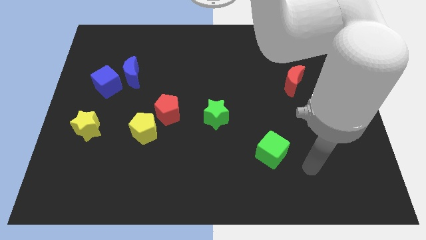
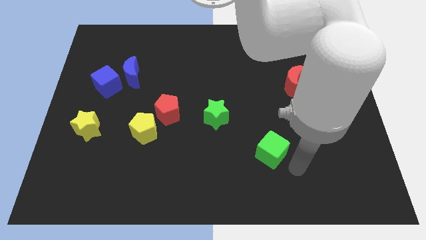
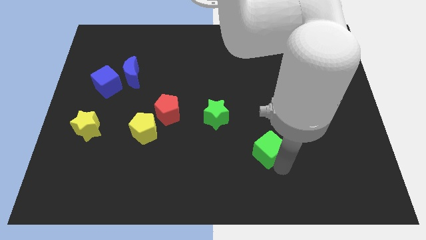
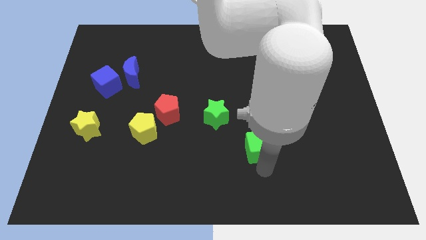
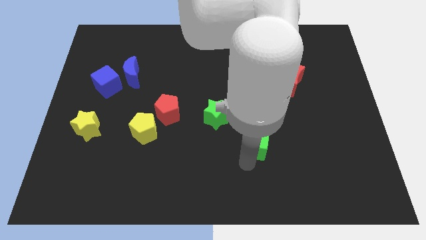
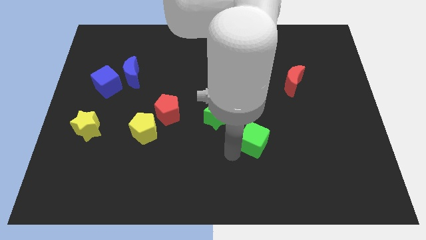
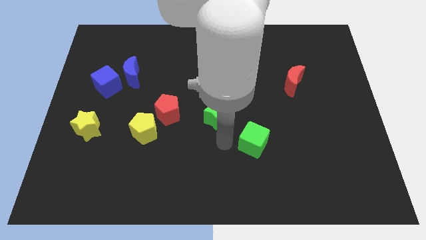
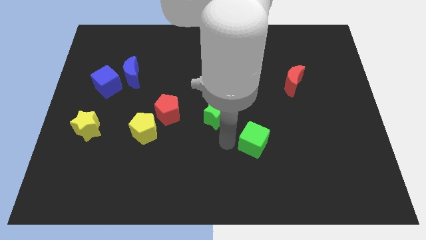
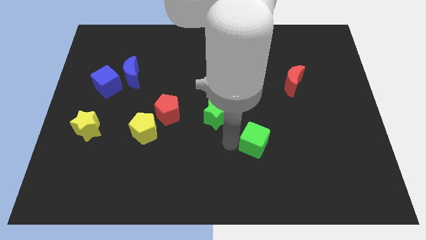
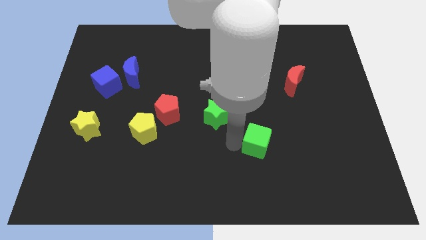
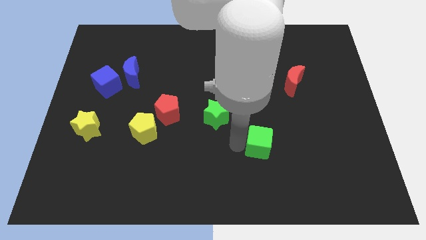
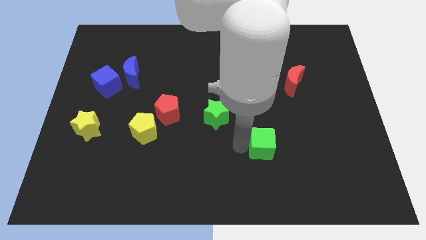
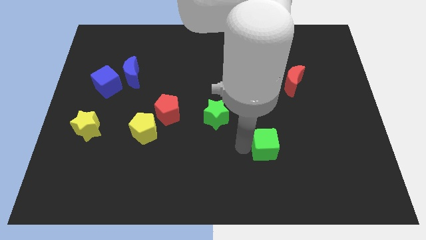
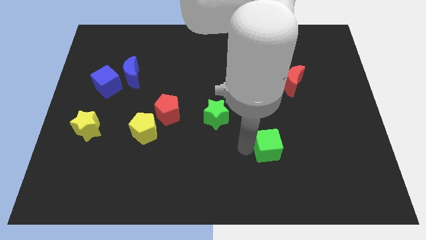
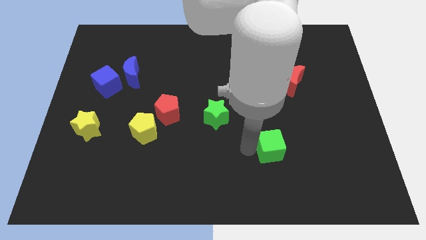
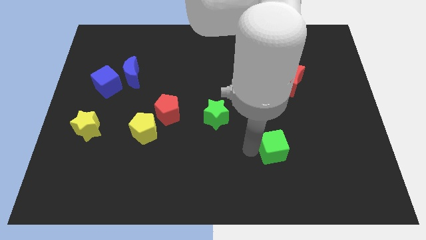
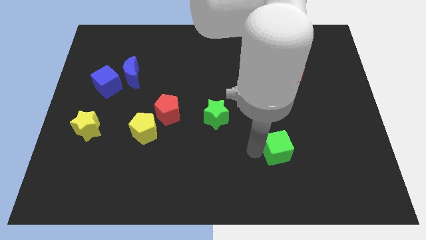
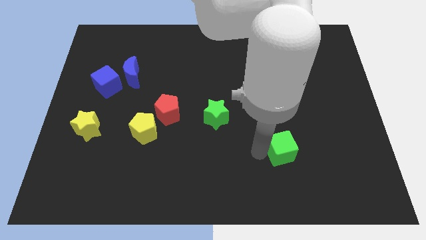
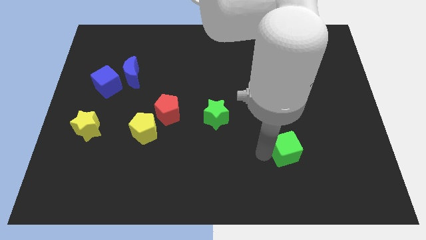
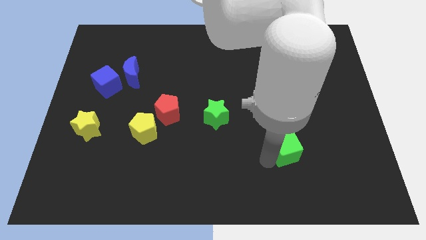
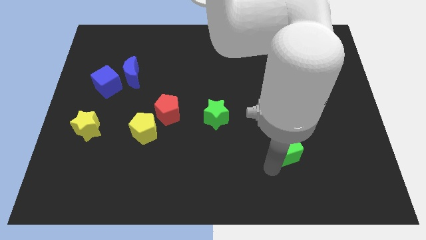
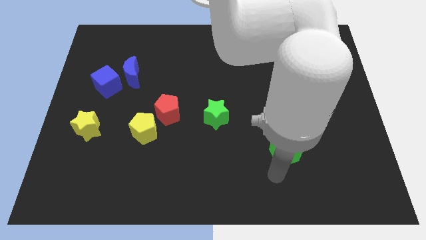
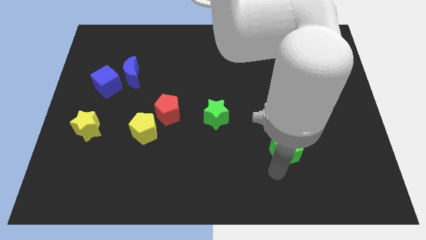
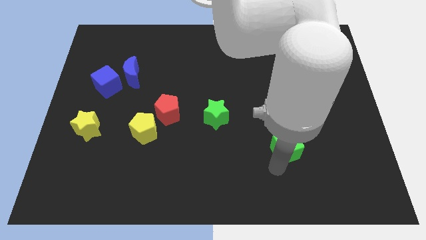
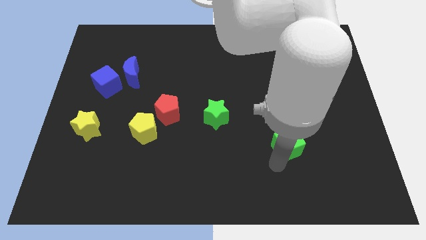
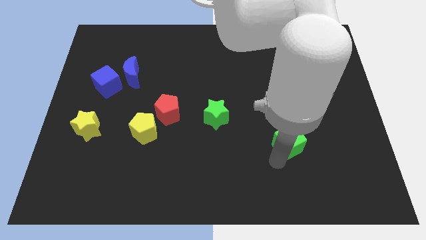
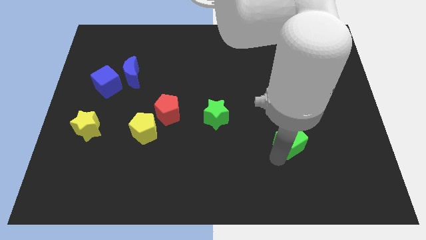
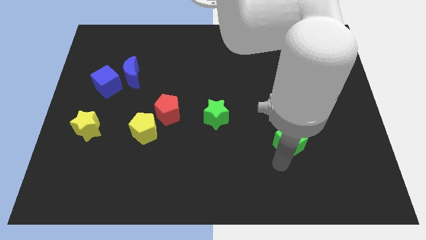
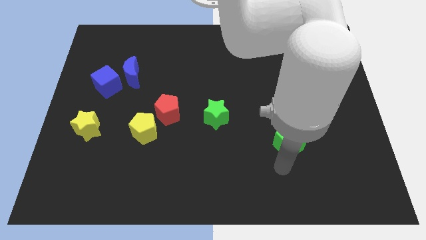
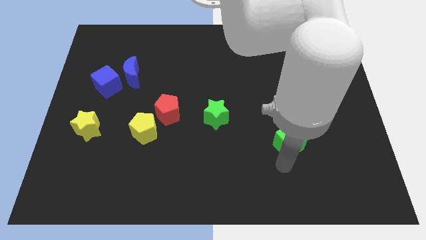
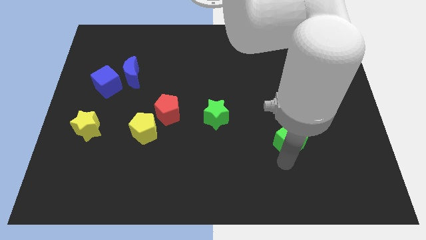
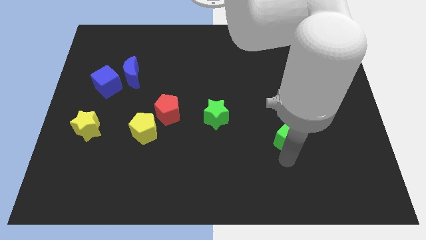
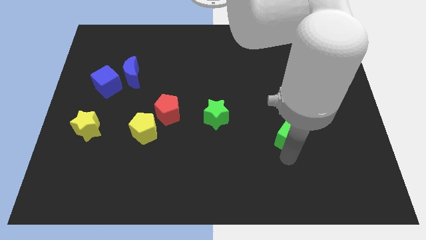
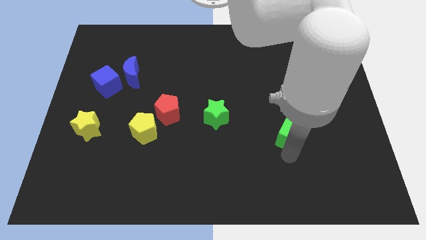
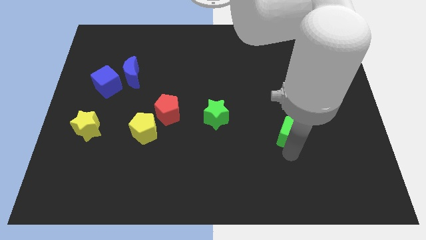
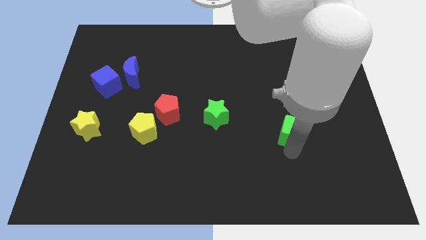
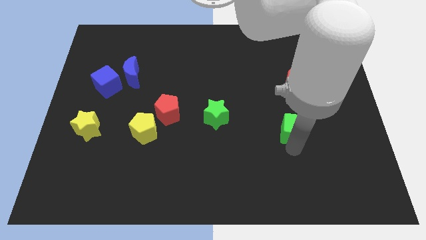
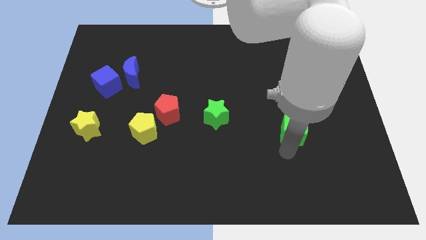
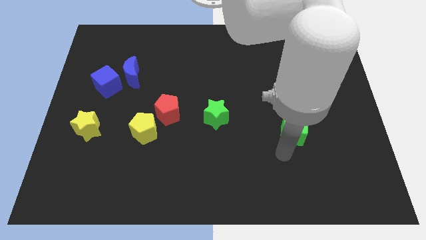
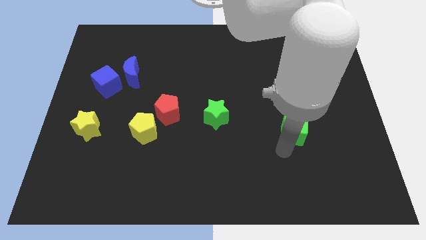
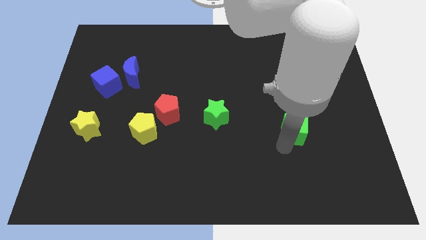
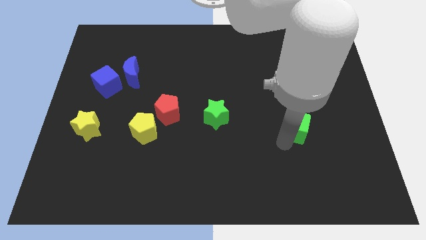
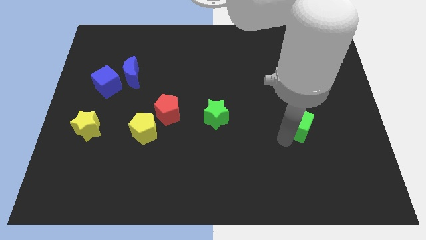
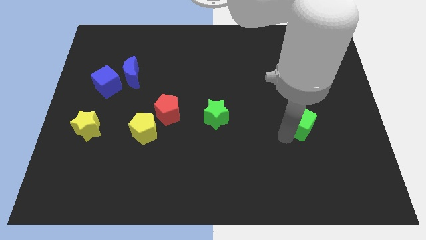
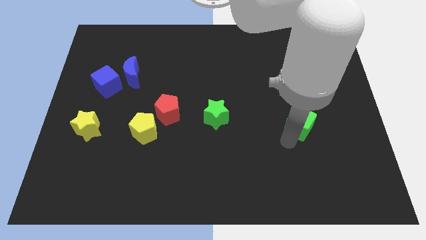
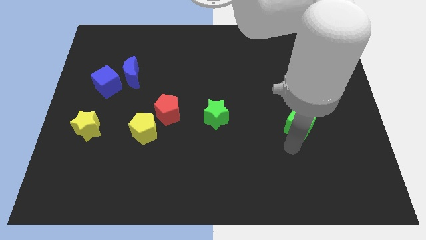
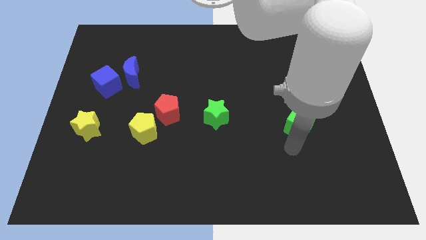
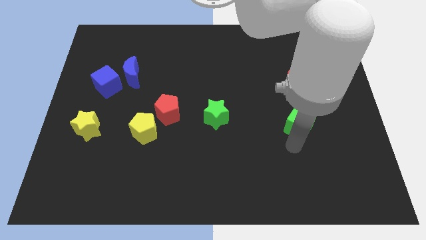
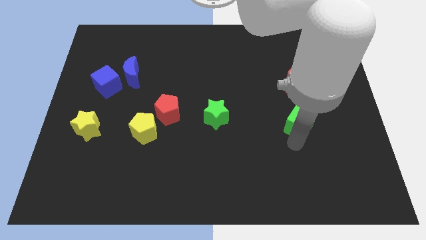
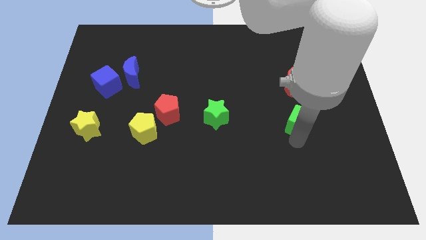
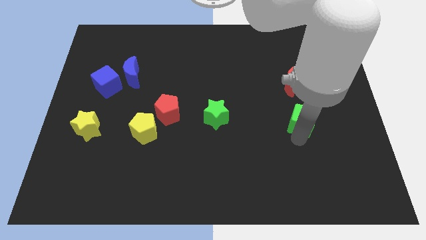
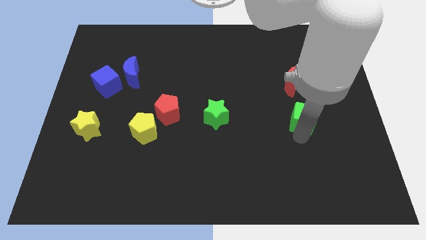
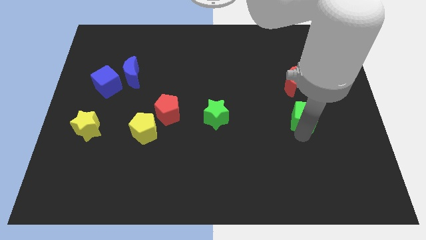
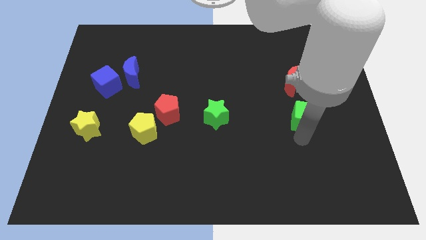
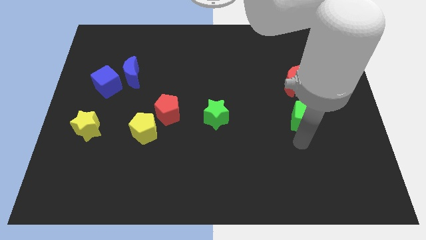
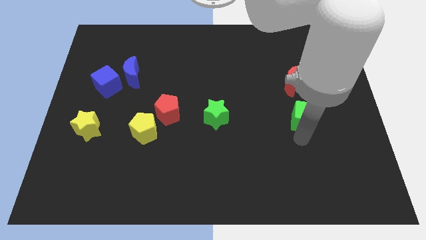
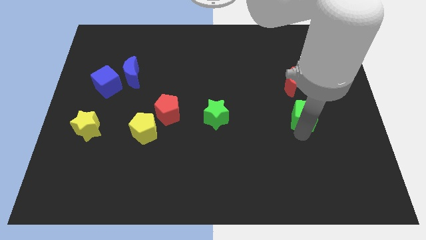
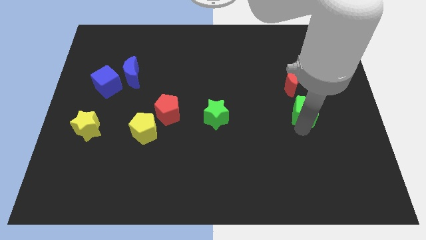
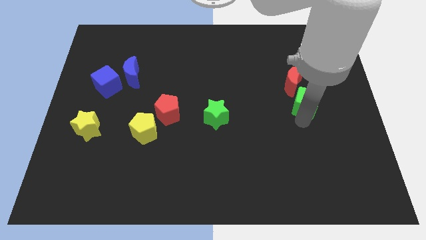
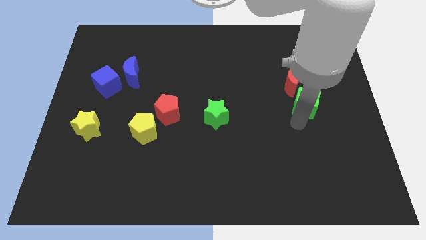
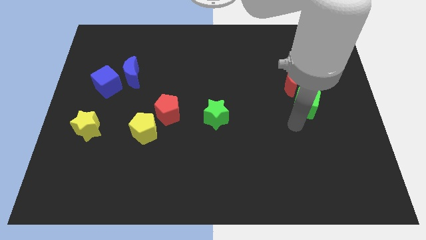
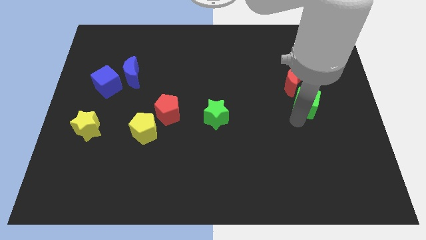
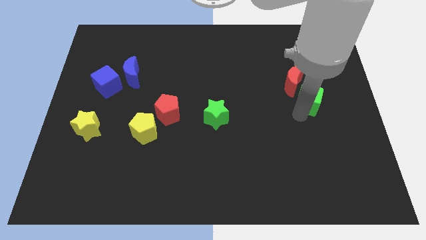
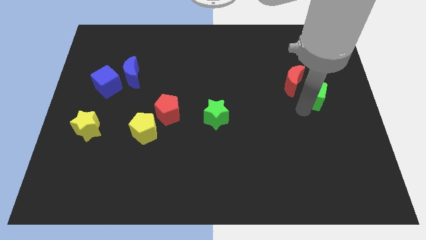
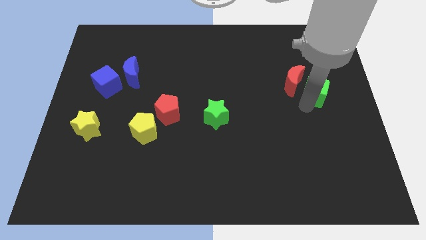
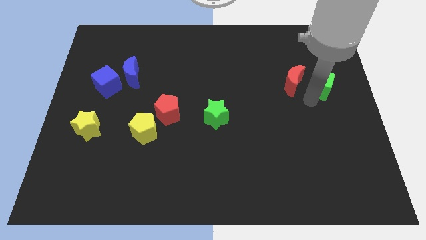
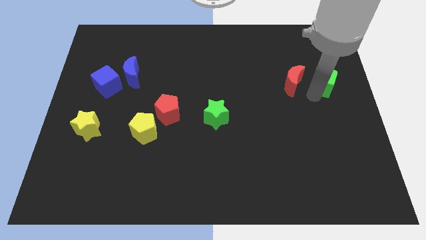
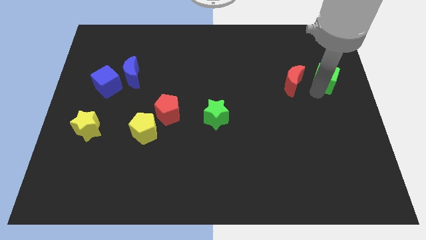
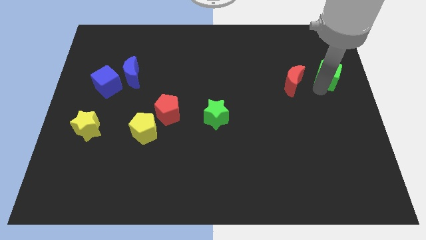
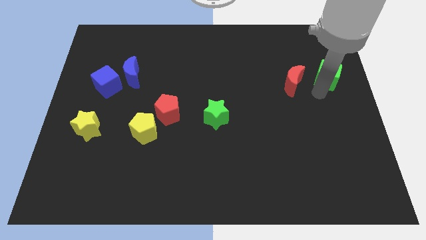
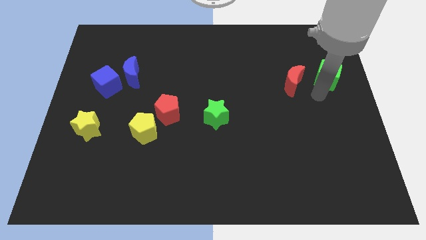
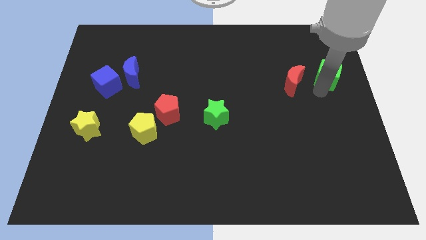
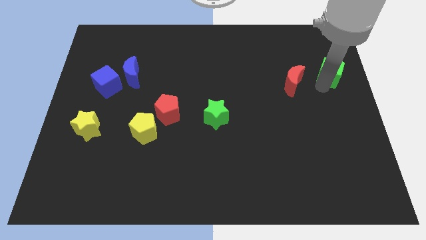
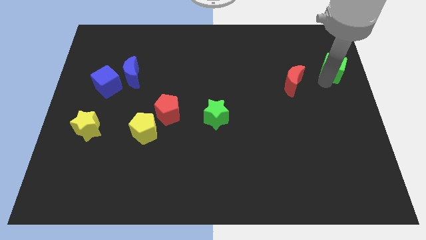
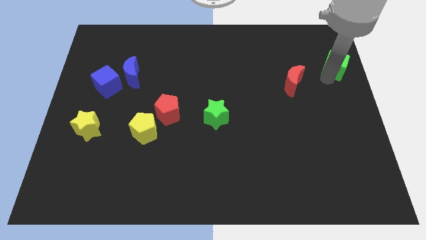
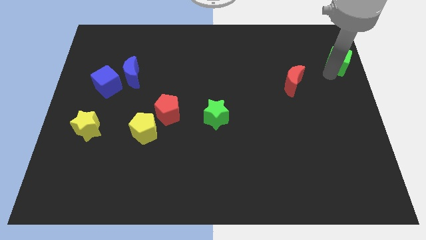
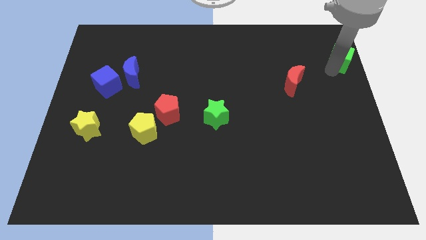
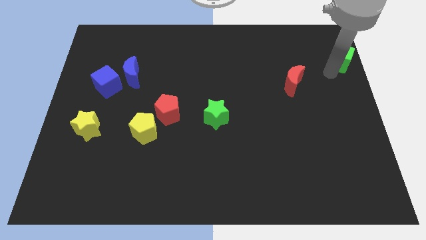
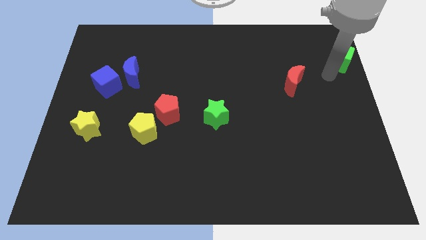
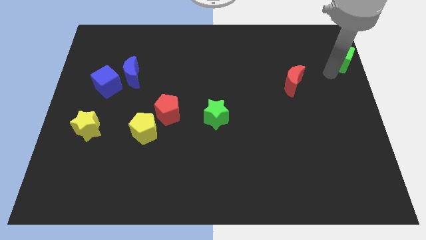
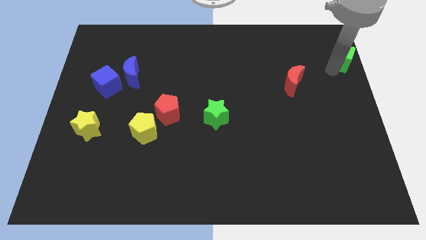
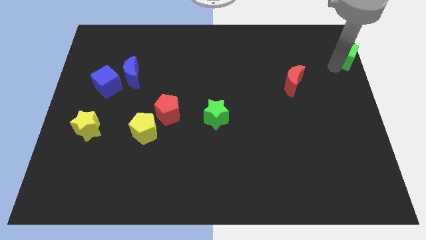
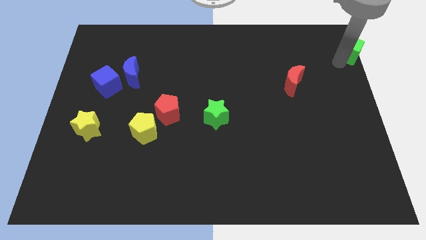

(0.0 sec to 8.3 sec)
move the green cube to the top right corner
